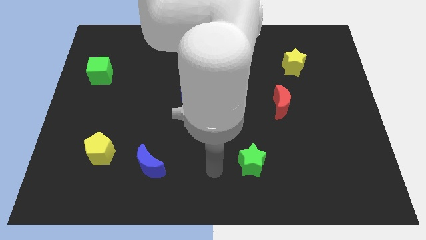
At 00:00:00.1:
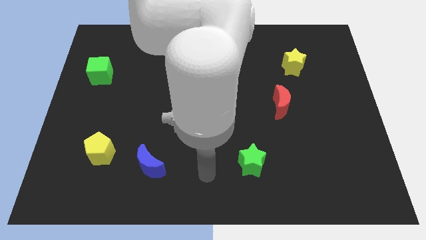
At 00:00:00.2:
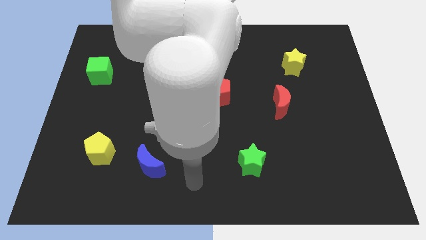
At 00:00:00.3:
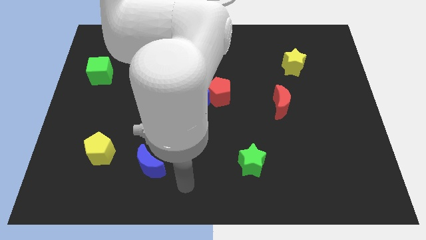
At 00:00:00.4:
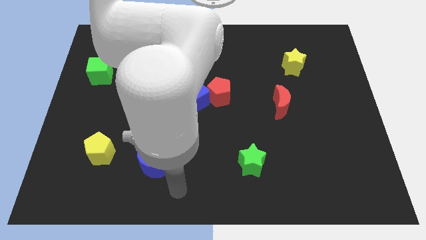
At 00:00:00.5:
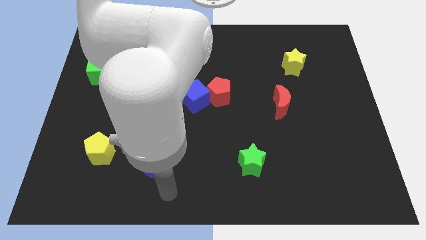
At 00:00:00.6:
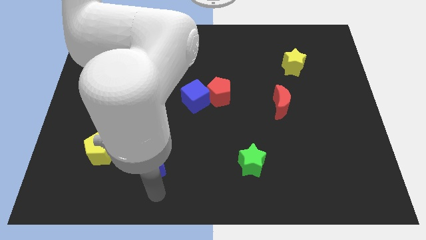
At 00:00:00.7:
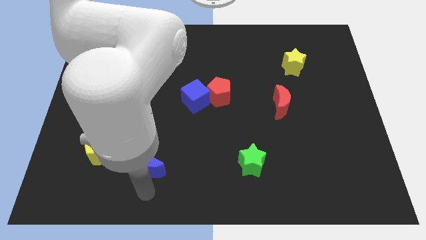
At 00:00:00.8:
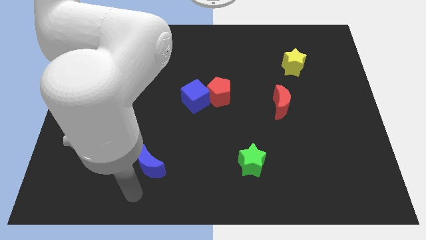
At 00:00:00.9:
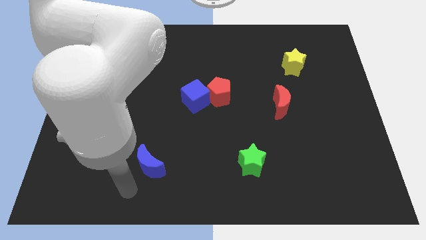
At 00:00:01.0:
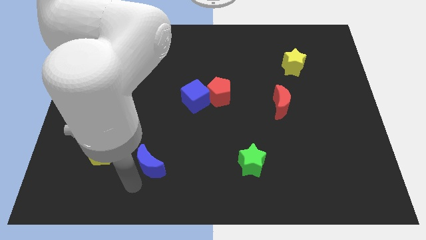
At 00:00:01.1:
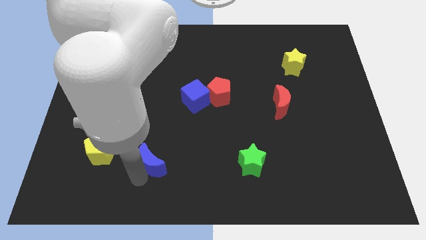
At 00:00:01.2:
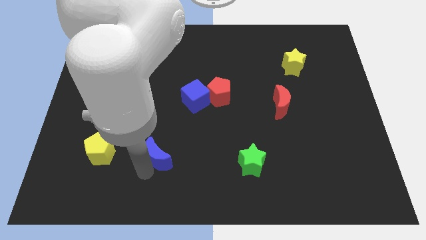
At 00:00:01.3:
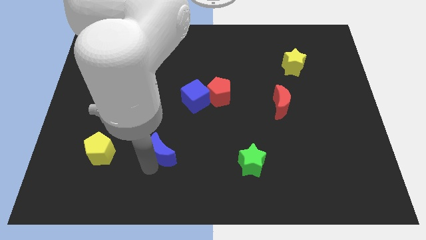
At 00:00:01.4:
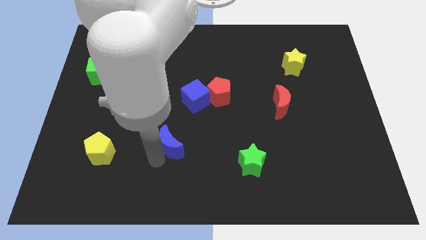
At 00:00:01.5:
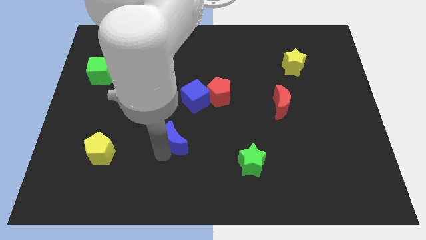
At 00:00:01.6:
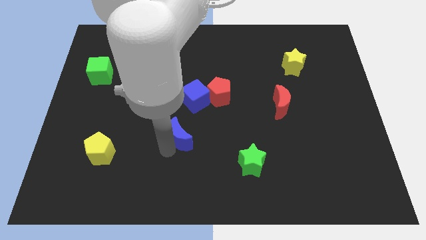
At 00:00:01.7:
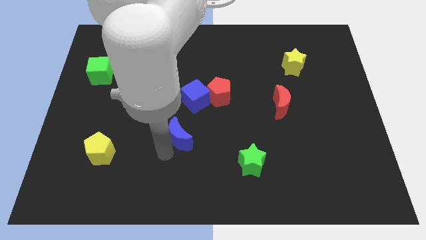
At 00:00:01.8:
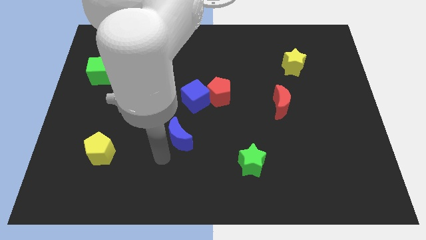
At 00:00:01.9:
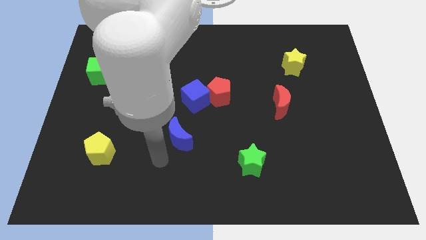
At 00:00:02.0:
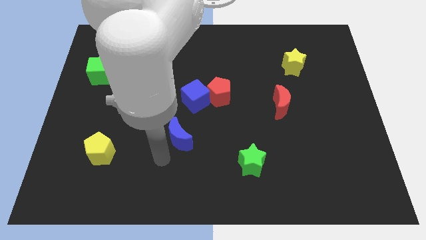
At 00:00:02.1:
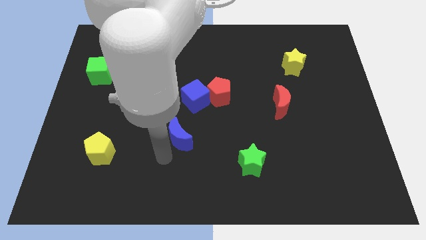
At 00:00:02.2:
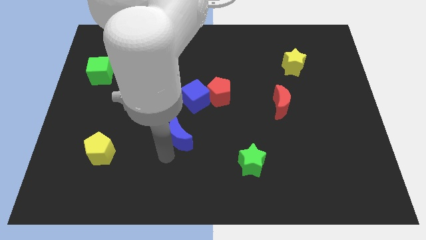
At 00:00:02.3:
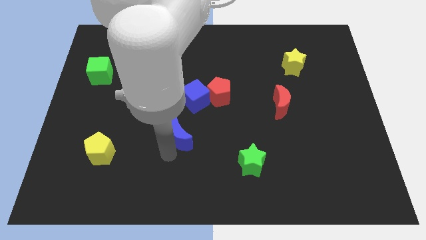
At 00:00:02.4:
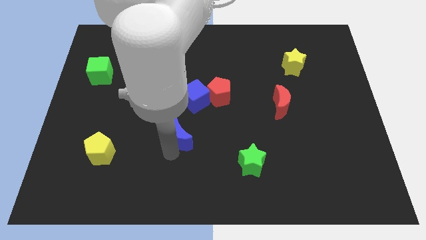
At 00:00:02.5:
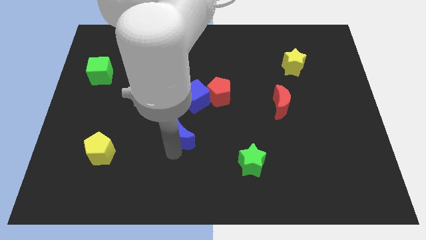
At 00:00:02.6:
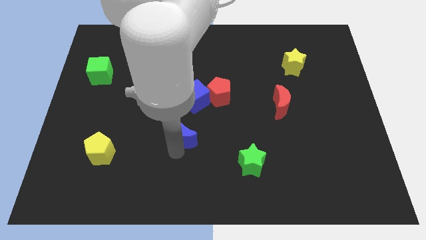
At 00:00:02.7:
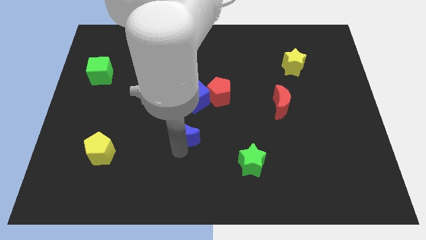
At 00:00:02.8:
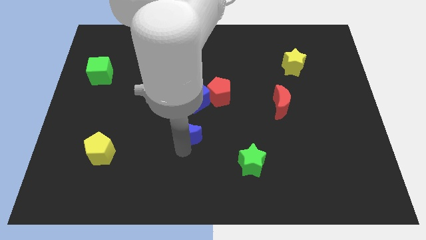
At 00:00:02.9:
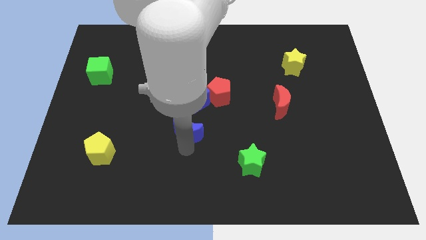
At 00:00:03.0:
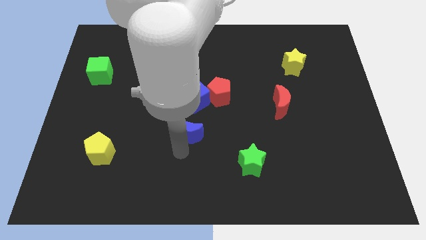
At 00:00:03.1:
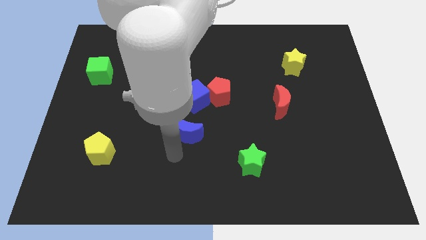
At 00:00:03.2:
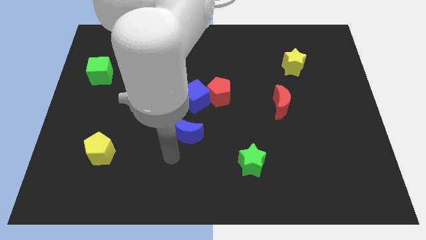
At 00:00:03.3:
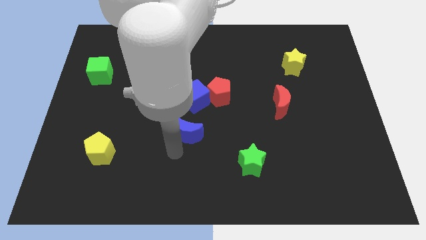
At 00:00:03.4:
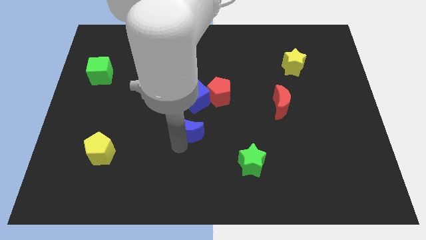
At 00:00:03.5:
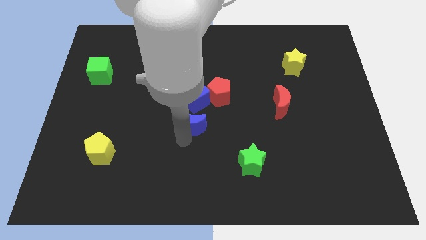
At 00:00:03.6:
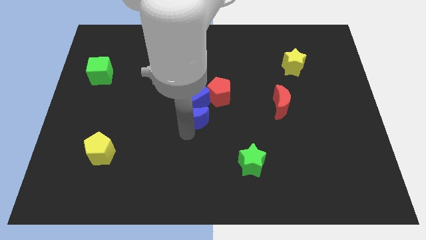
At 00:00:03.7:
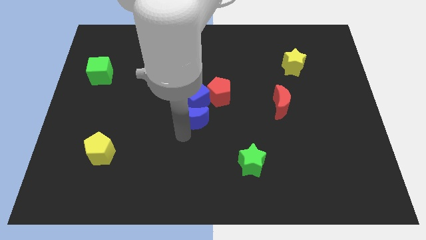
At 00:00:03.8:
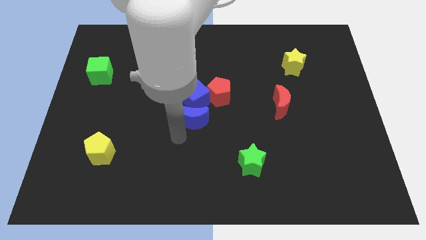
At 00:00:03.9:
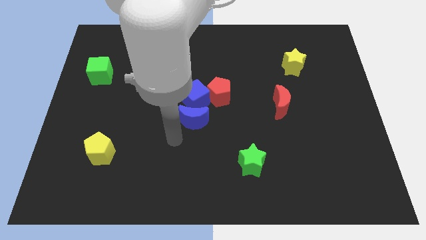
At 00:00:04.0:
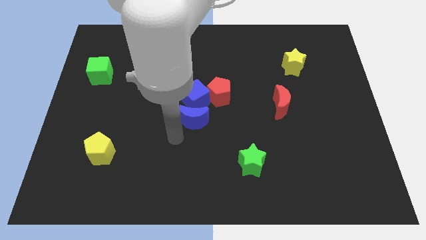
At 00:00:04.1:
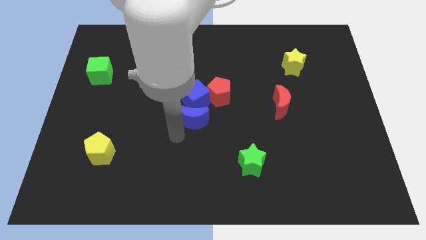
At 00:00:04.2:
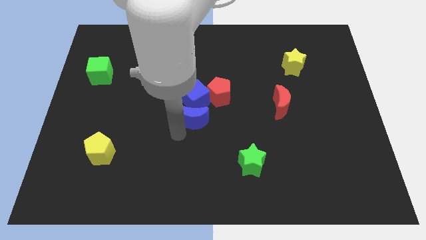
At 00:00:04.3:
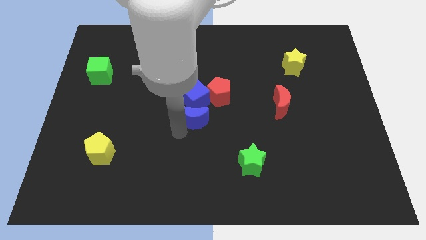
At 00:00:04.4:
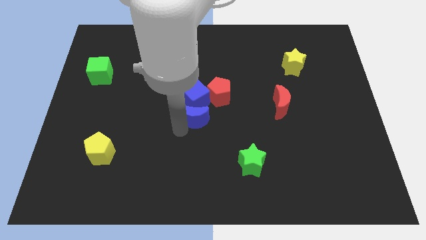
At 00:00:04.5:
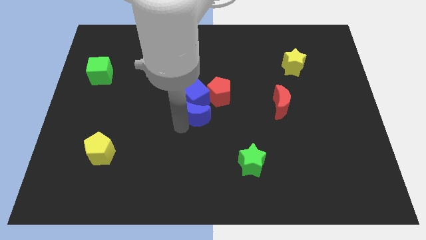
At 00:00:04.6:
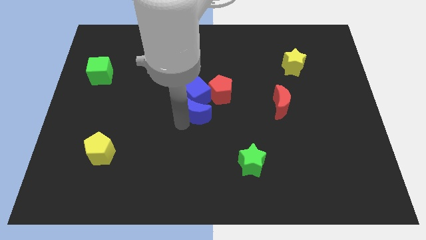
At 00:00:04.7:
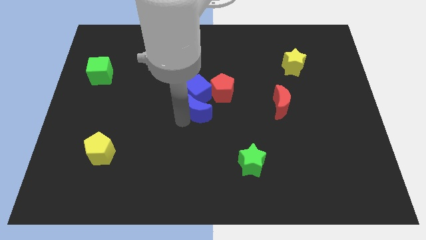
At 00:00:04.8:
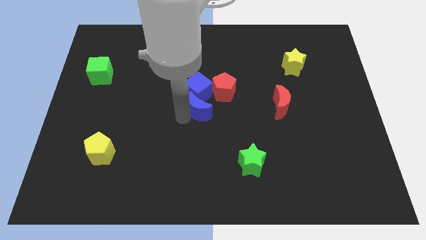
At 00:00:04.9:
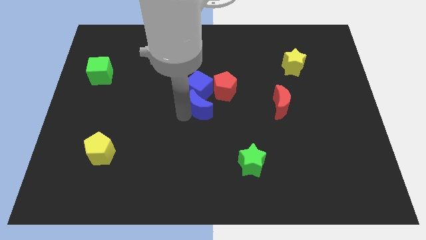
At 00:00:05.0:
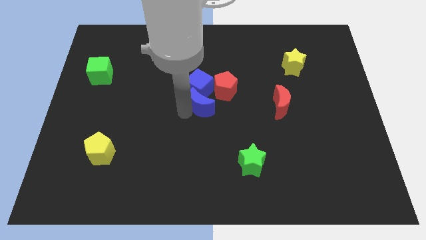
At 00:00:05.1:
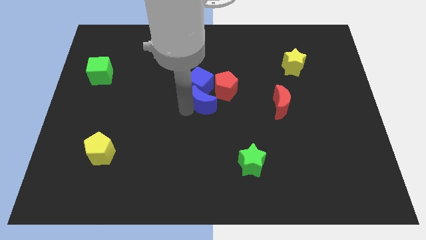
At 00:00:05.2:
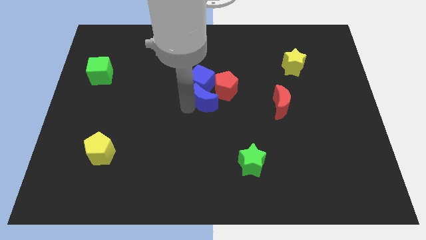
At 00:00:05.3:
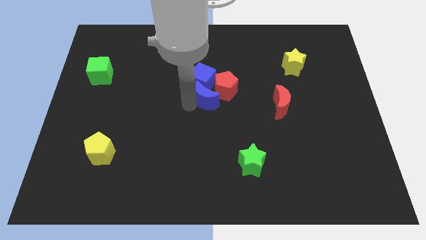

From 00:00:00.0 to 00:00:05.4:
slide the blue moon towards the red pentagon

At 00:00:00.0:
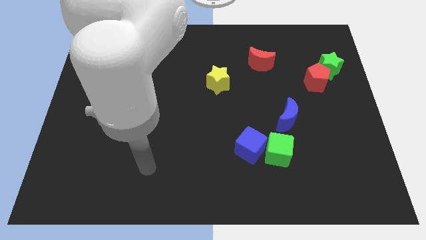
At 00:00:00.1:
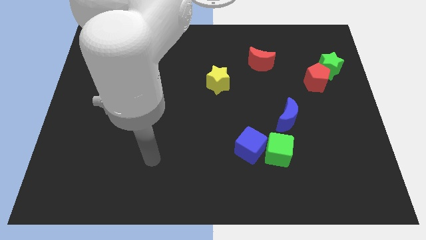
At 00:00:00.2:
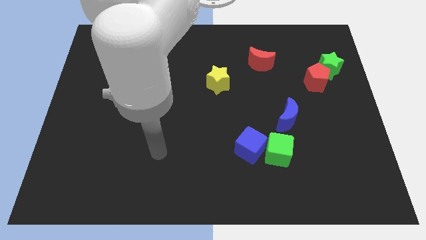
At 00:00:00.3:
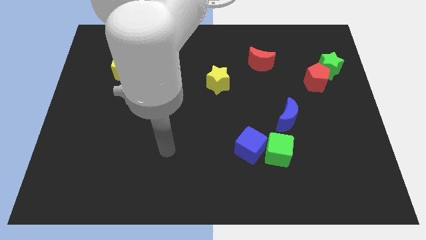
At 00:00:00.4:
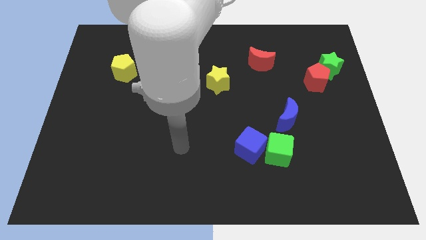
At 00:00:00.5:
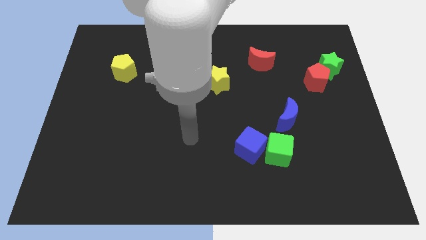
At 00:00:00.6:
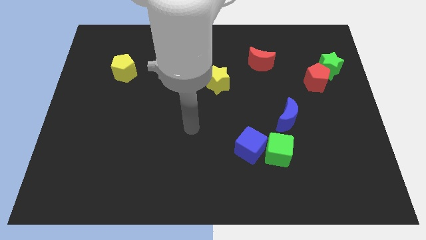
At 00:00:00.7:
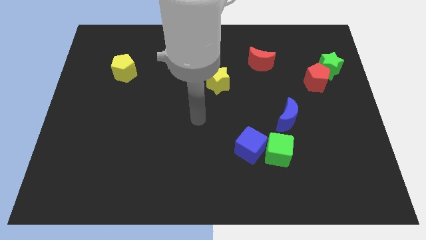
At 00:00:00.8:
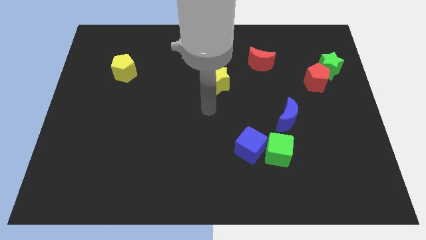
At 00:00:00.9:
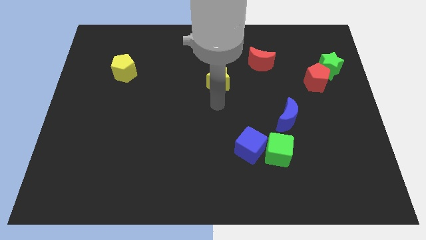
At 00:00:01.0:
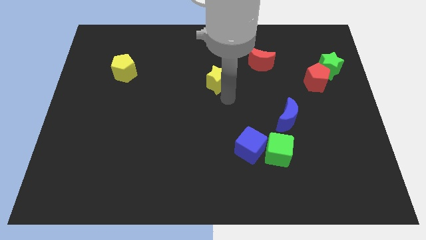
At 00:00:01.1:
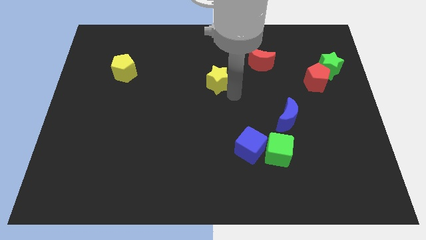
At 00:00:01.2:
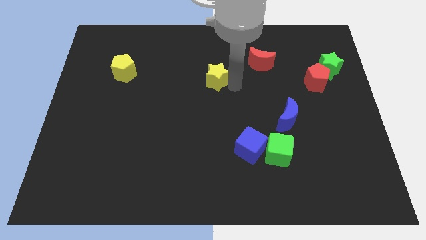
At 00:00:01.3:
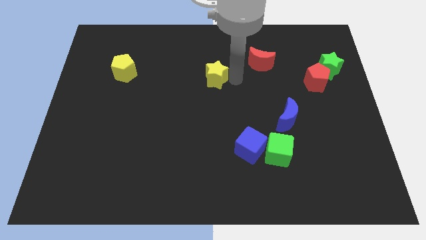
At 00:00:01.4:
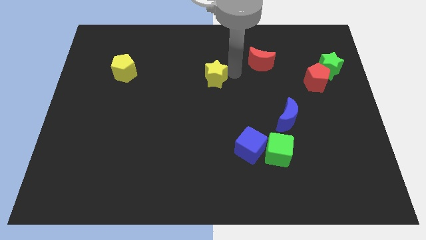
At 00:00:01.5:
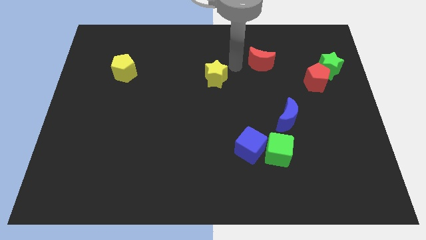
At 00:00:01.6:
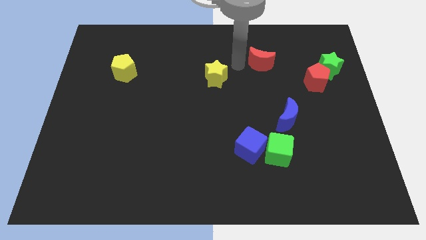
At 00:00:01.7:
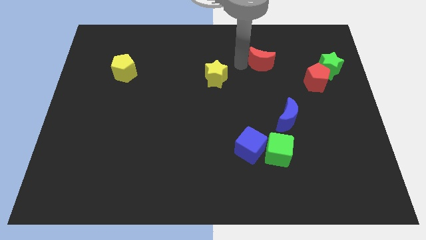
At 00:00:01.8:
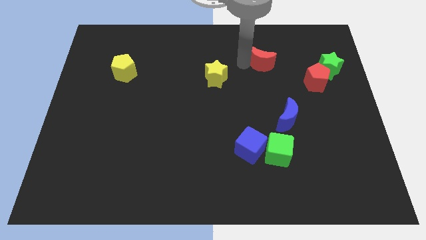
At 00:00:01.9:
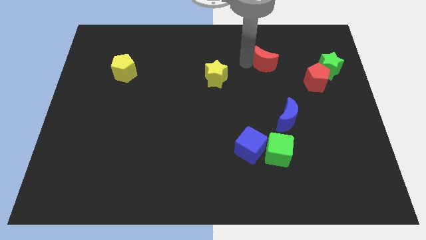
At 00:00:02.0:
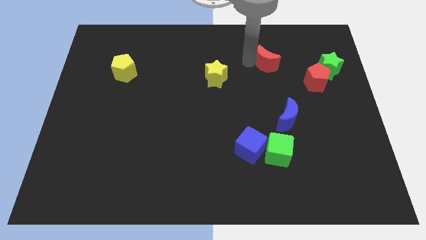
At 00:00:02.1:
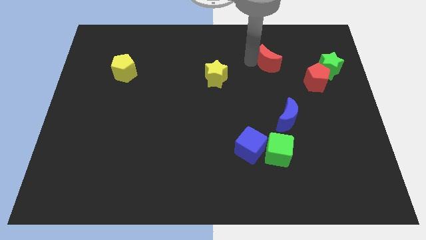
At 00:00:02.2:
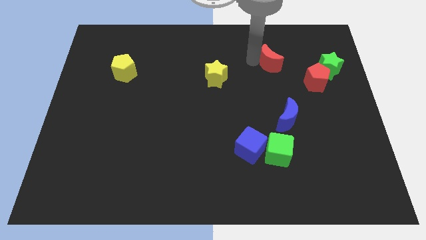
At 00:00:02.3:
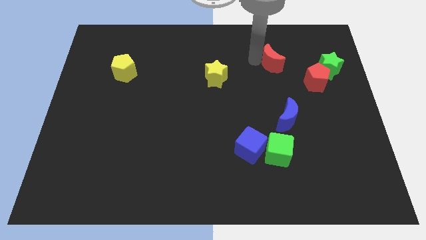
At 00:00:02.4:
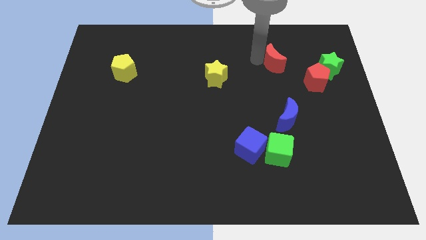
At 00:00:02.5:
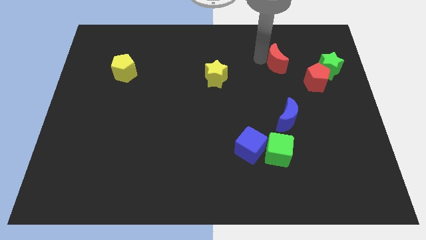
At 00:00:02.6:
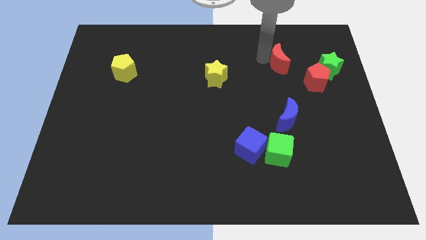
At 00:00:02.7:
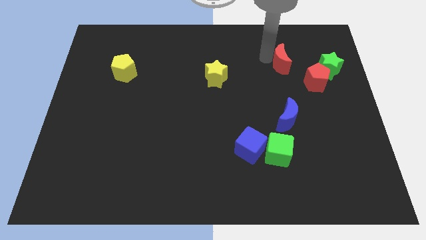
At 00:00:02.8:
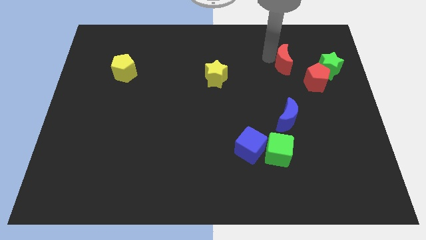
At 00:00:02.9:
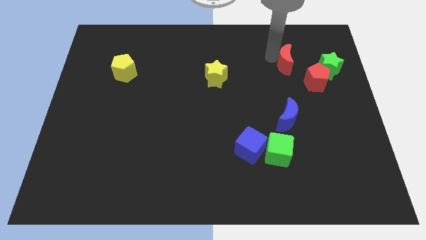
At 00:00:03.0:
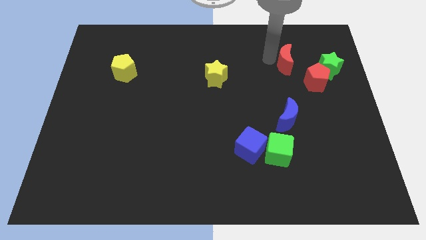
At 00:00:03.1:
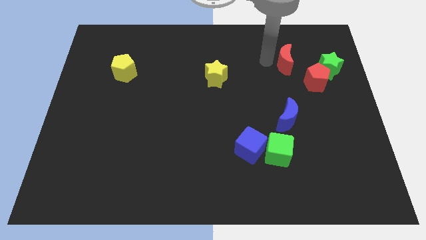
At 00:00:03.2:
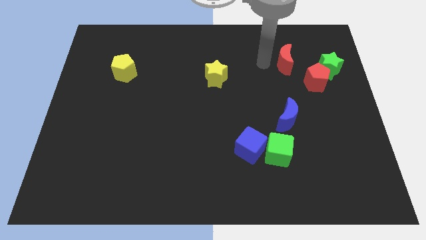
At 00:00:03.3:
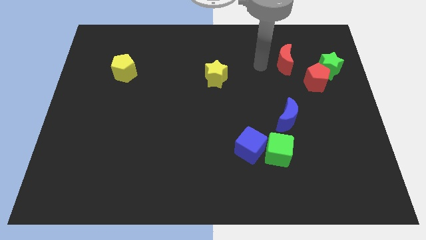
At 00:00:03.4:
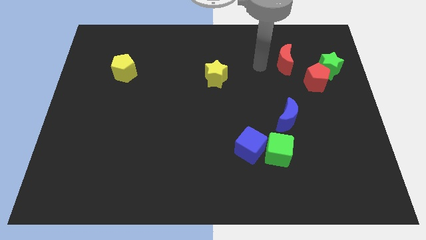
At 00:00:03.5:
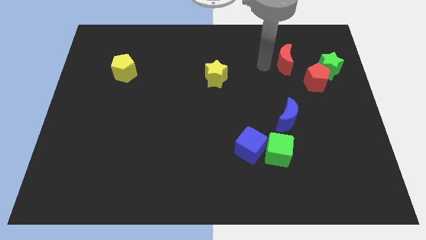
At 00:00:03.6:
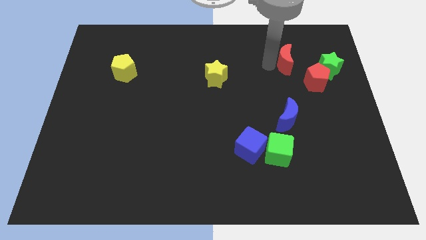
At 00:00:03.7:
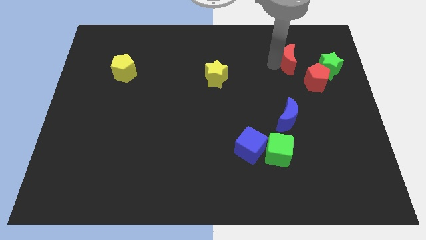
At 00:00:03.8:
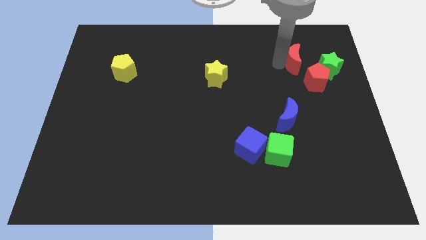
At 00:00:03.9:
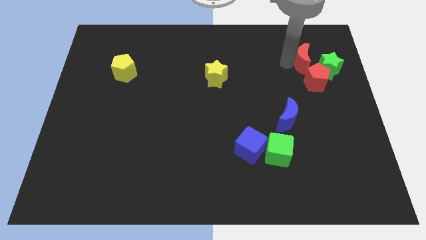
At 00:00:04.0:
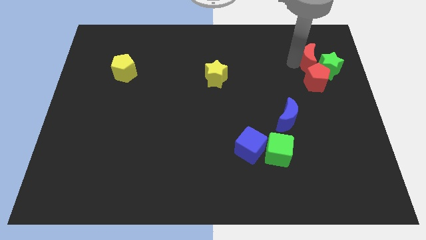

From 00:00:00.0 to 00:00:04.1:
slide the red moon towards the green star
